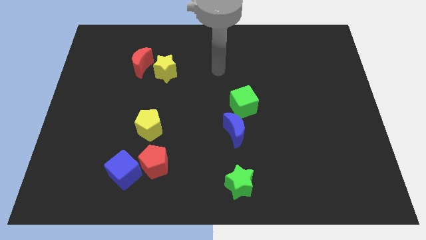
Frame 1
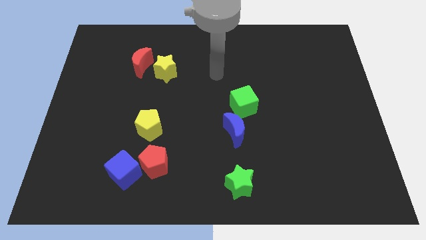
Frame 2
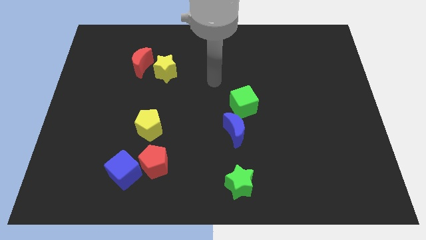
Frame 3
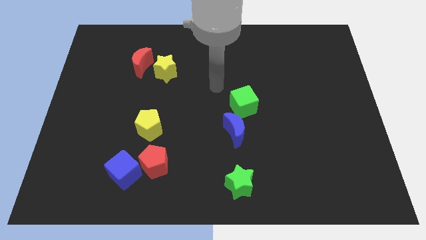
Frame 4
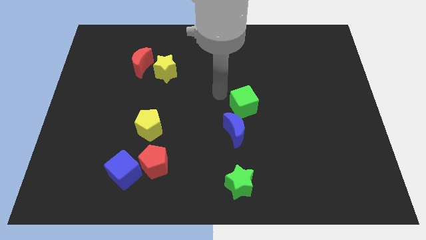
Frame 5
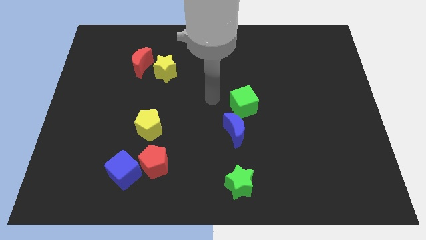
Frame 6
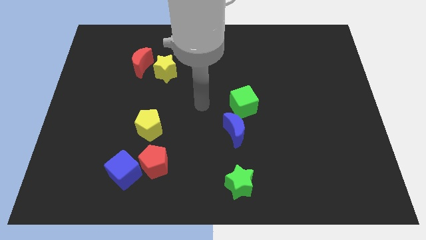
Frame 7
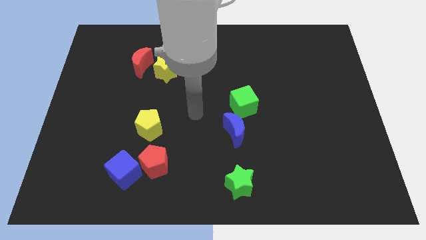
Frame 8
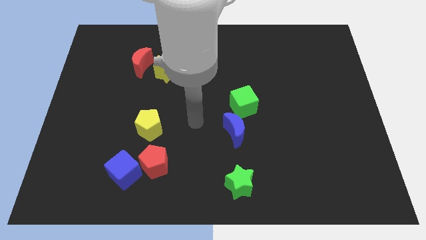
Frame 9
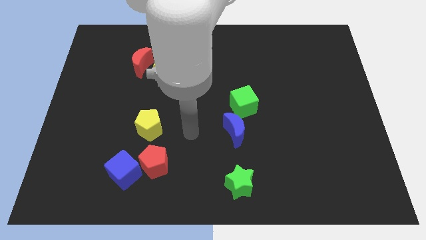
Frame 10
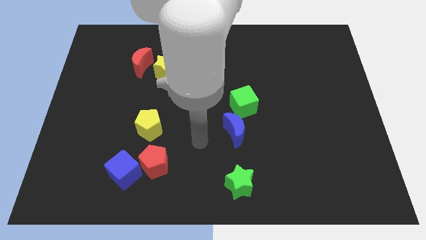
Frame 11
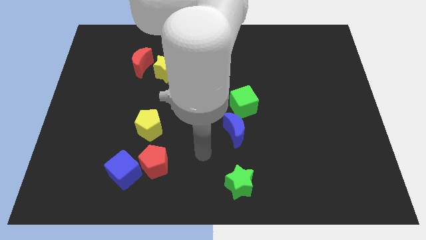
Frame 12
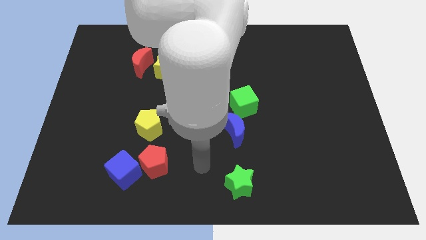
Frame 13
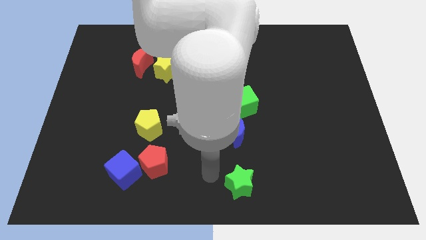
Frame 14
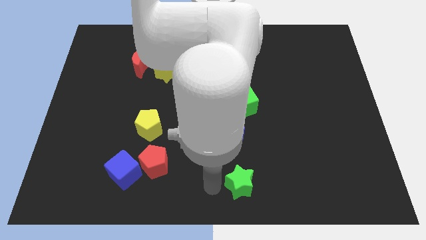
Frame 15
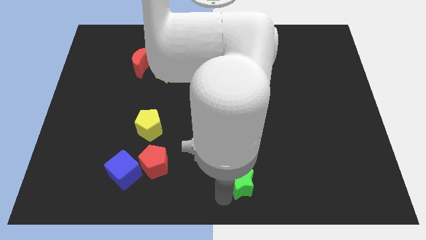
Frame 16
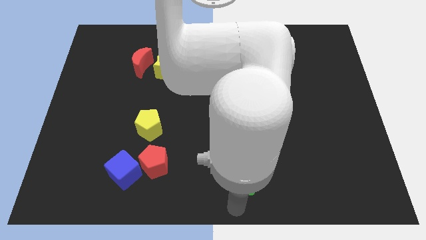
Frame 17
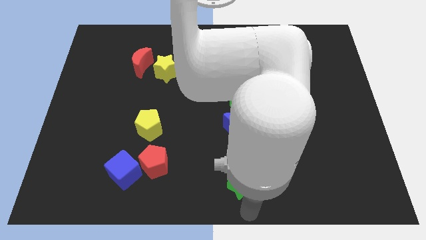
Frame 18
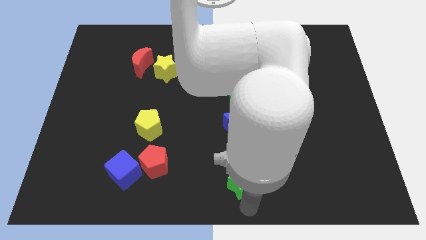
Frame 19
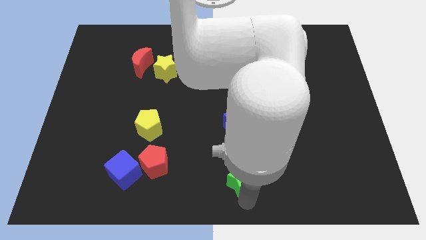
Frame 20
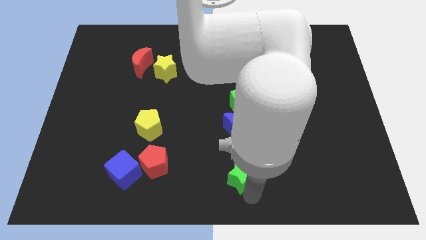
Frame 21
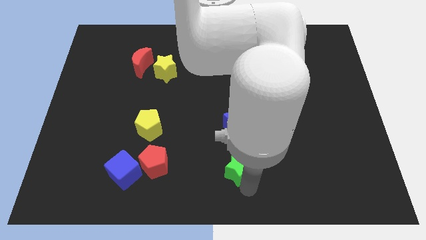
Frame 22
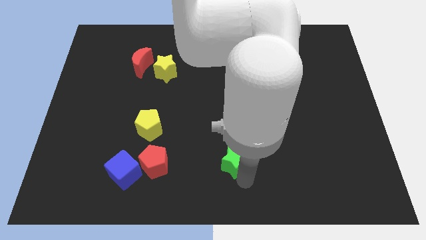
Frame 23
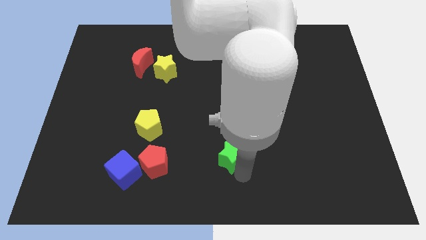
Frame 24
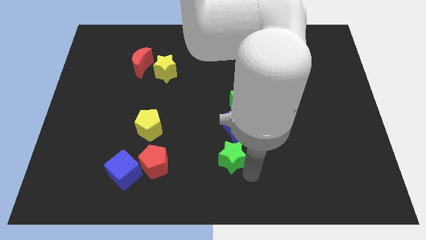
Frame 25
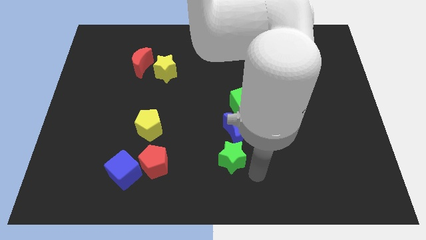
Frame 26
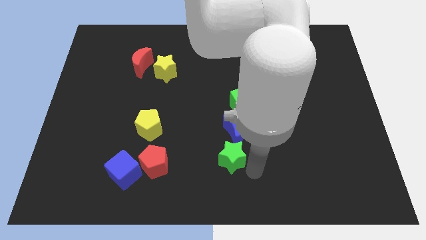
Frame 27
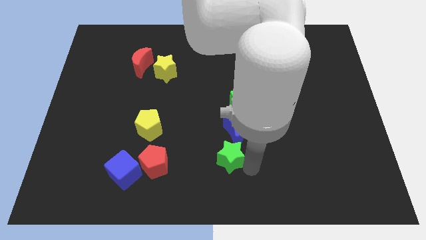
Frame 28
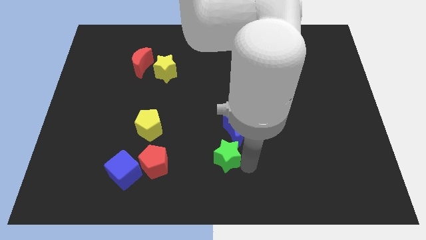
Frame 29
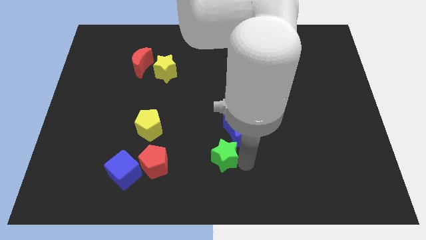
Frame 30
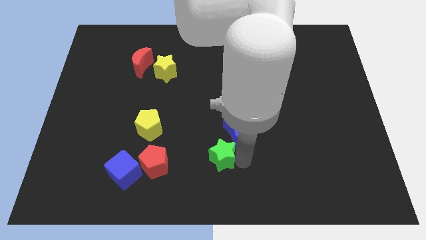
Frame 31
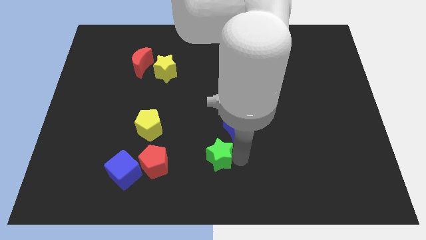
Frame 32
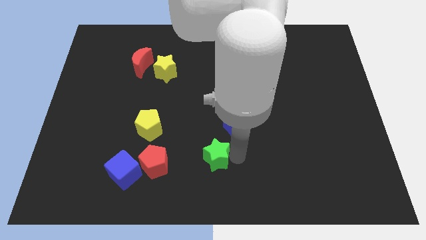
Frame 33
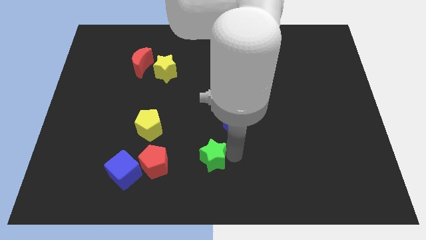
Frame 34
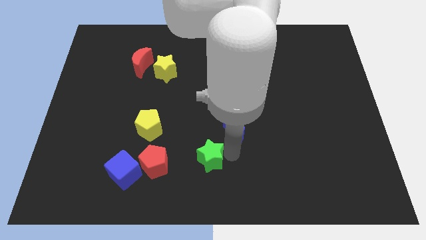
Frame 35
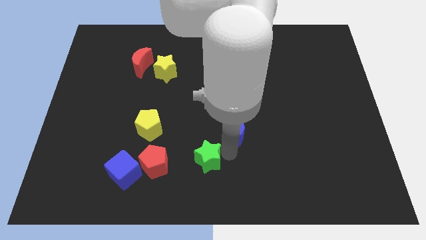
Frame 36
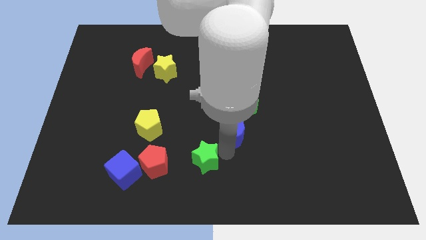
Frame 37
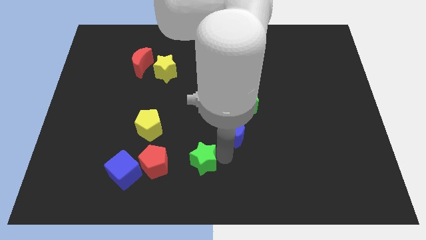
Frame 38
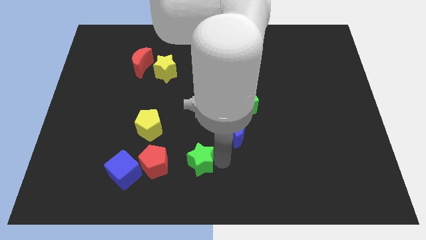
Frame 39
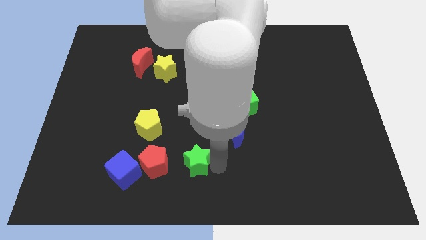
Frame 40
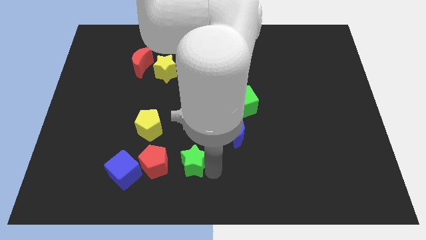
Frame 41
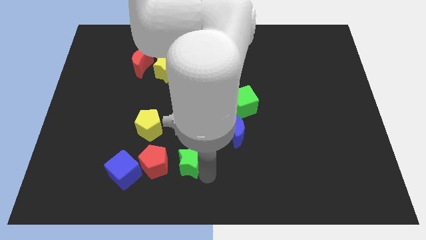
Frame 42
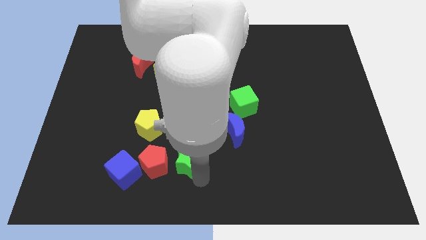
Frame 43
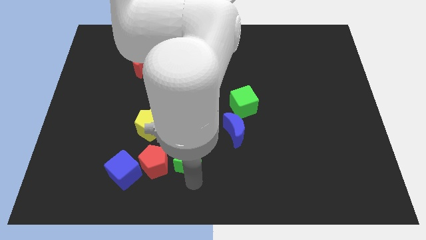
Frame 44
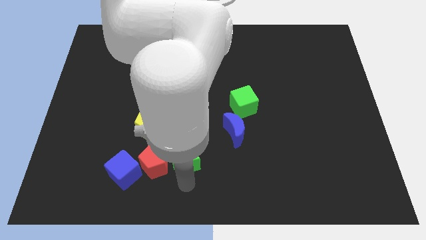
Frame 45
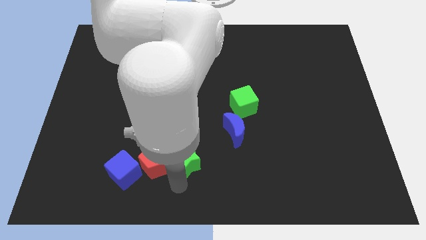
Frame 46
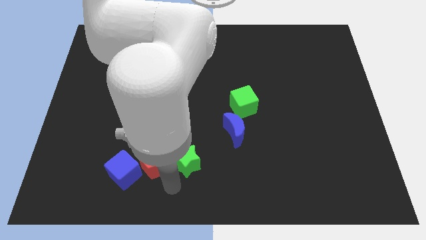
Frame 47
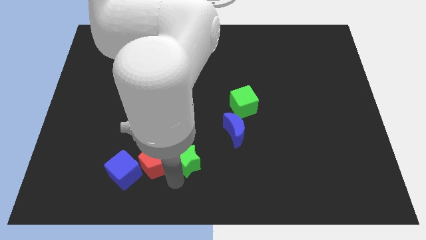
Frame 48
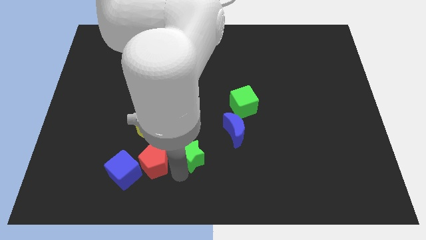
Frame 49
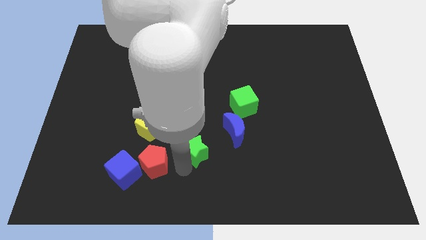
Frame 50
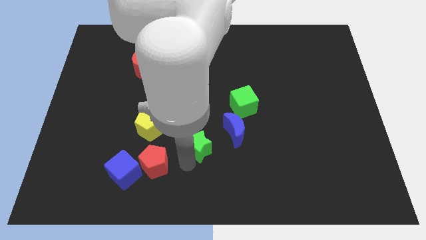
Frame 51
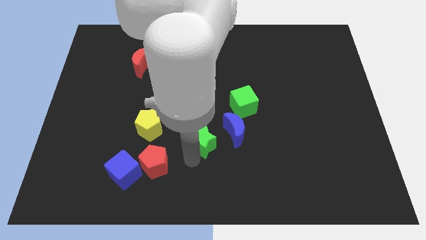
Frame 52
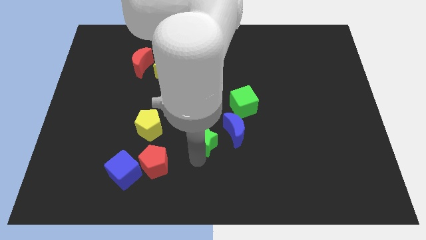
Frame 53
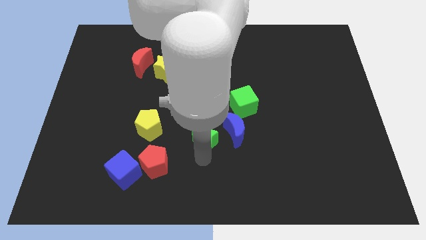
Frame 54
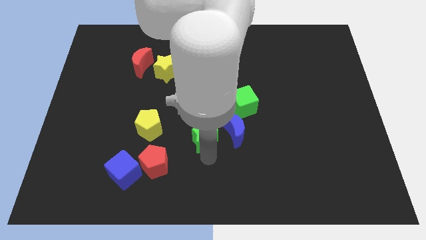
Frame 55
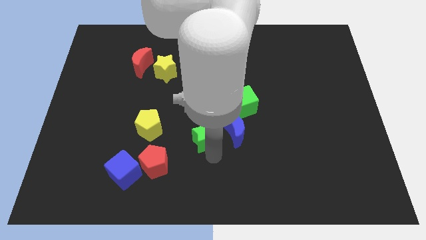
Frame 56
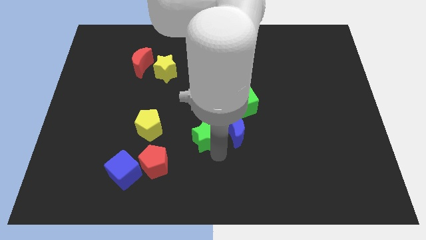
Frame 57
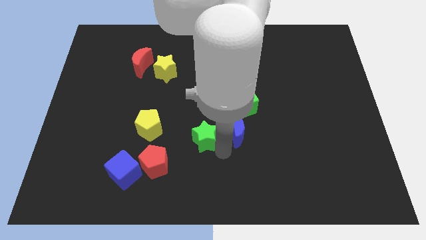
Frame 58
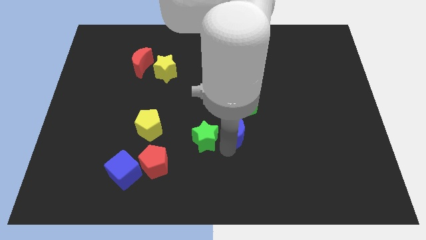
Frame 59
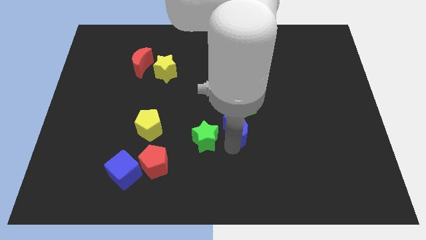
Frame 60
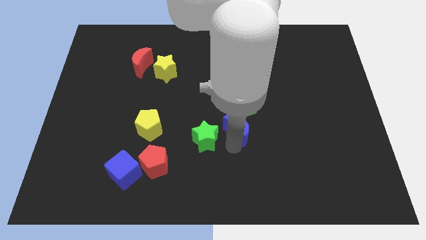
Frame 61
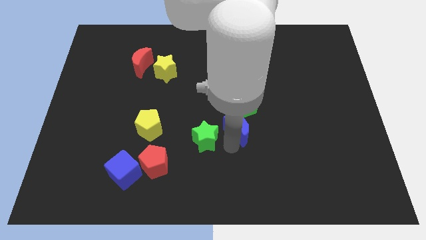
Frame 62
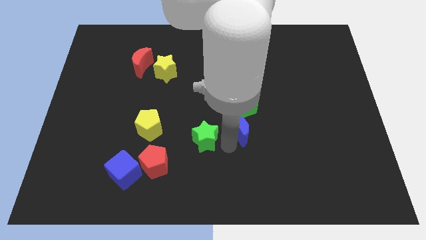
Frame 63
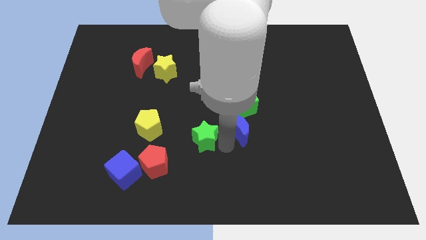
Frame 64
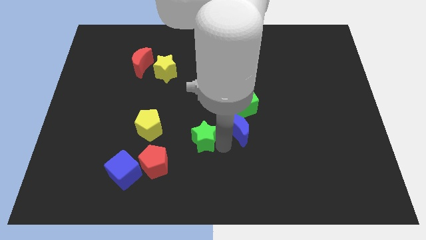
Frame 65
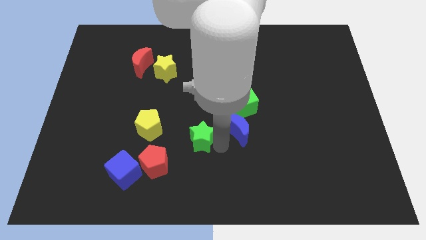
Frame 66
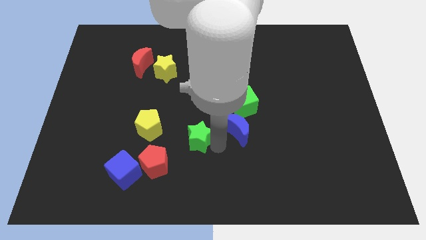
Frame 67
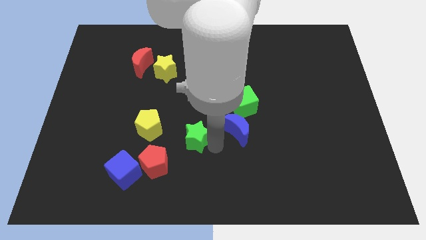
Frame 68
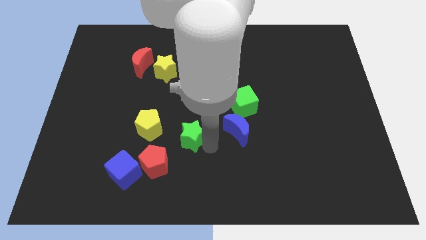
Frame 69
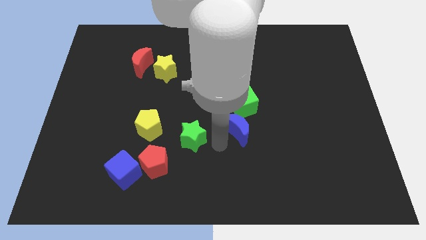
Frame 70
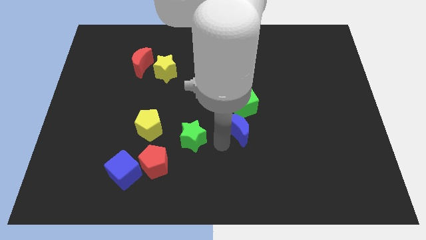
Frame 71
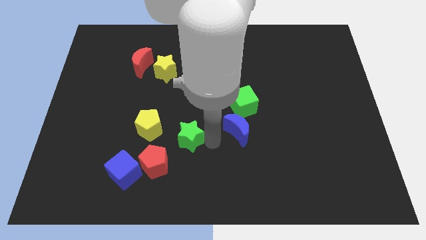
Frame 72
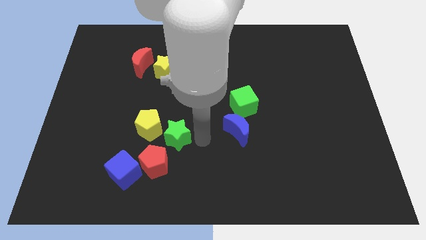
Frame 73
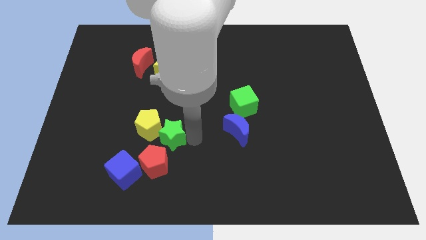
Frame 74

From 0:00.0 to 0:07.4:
put the green star close to the yellow pentagon
